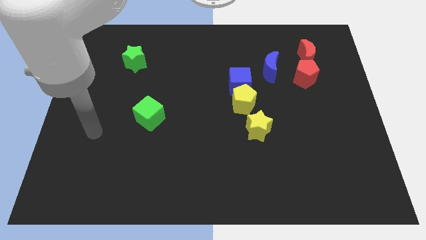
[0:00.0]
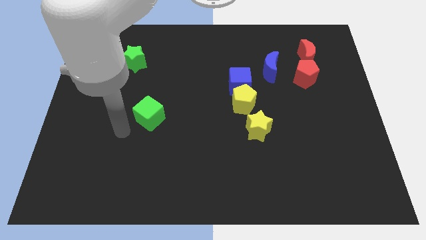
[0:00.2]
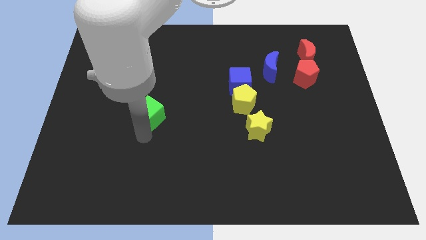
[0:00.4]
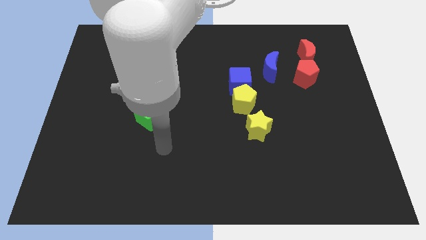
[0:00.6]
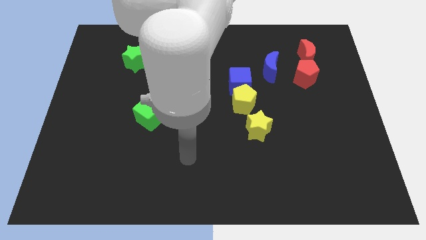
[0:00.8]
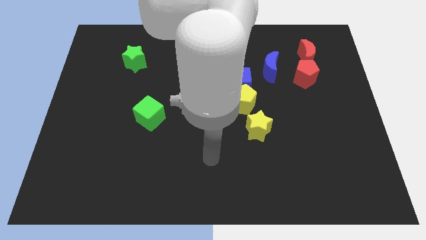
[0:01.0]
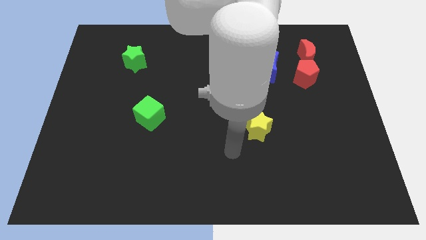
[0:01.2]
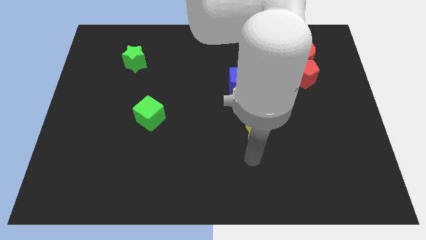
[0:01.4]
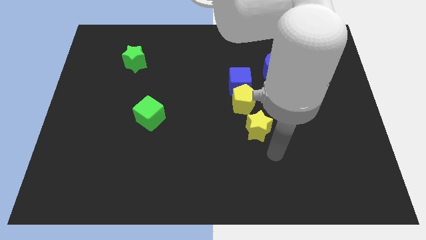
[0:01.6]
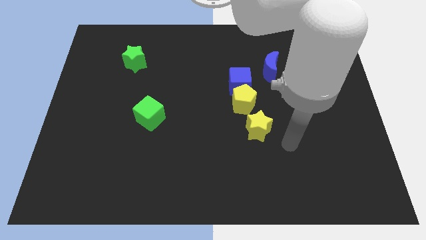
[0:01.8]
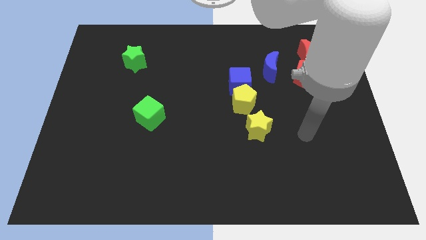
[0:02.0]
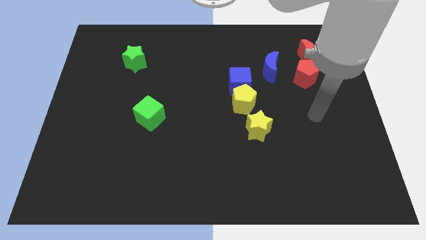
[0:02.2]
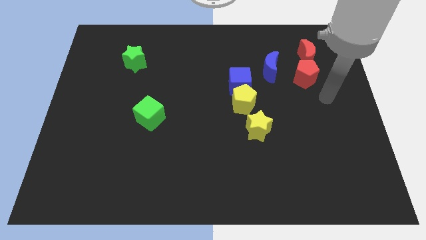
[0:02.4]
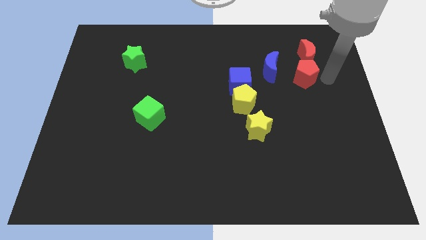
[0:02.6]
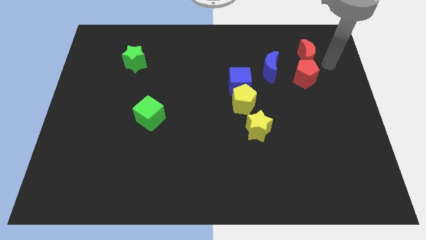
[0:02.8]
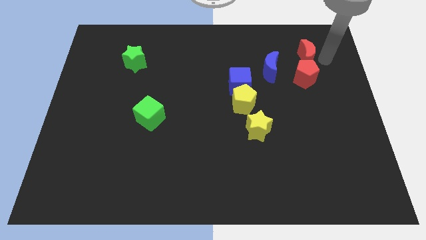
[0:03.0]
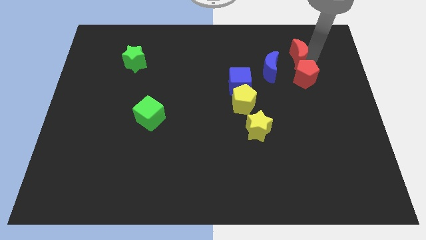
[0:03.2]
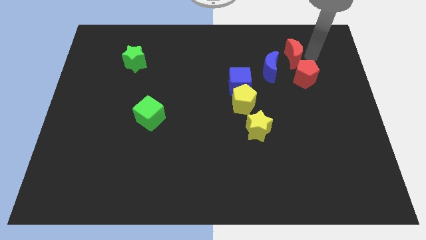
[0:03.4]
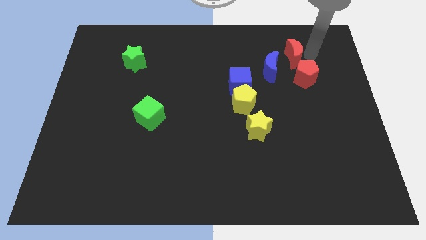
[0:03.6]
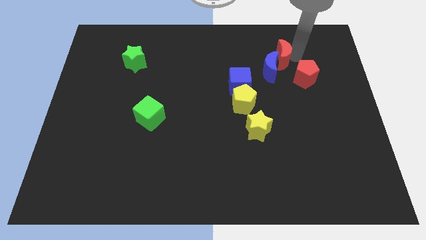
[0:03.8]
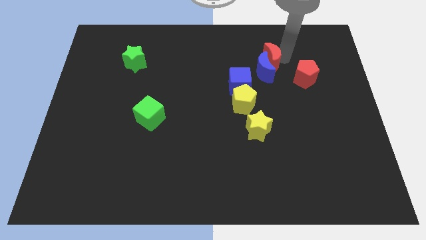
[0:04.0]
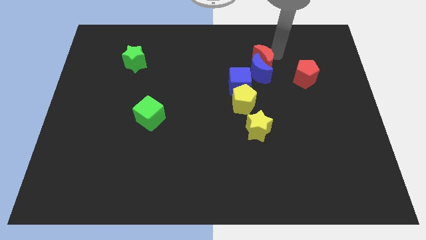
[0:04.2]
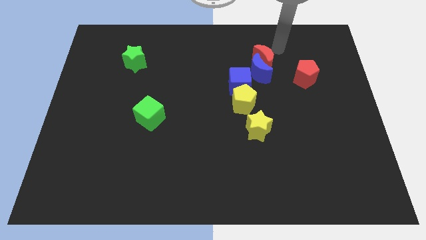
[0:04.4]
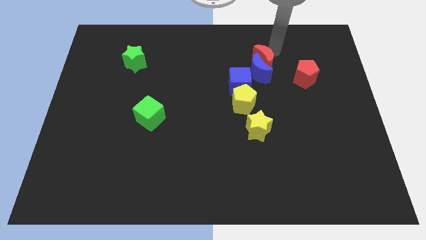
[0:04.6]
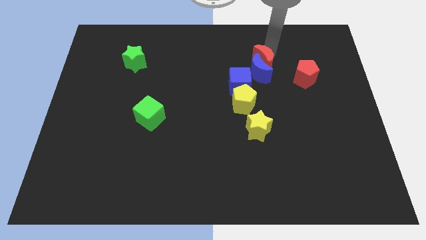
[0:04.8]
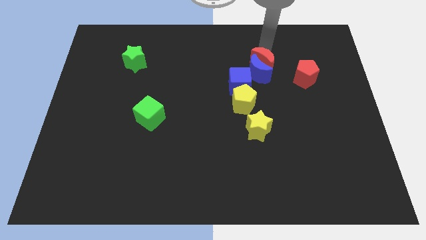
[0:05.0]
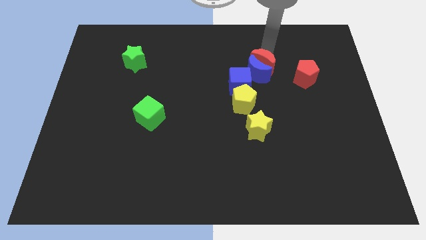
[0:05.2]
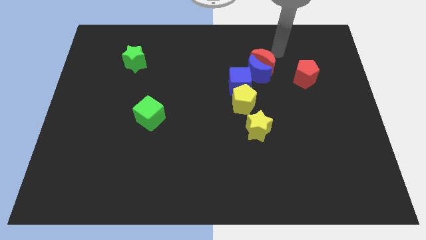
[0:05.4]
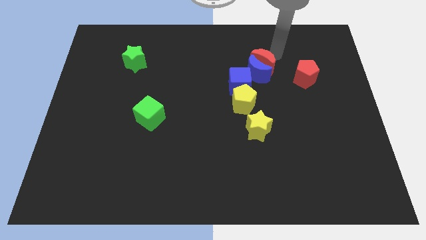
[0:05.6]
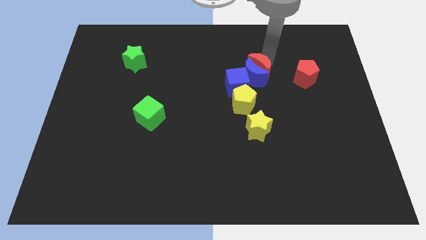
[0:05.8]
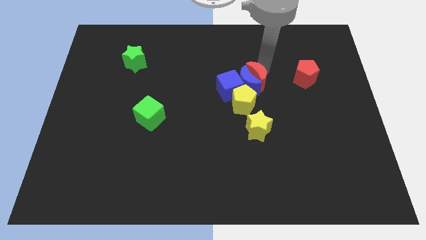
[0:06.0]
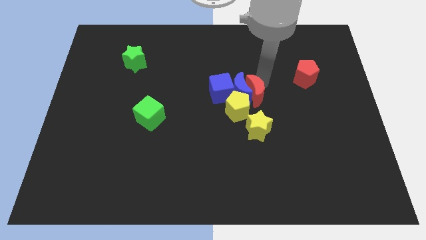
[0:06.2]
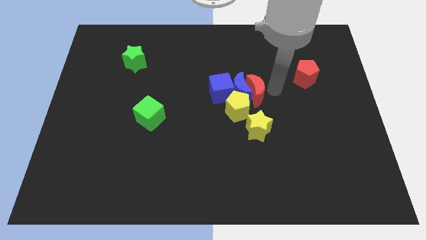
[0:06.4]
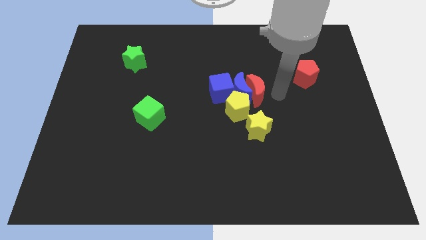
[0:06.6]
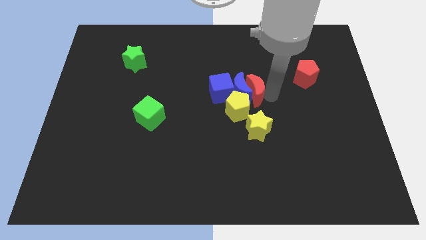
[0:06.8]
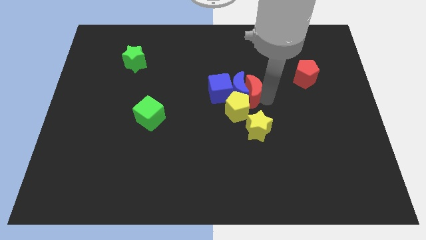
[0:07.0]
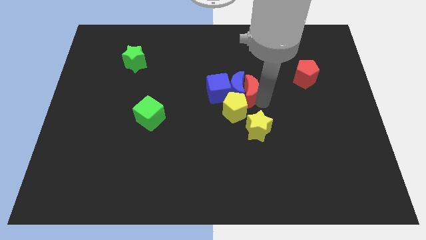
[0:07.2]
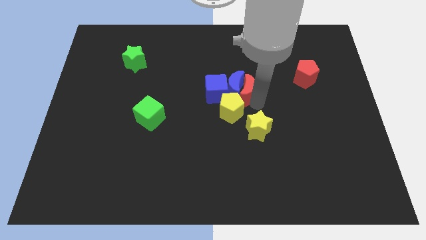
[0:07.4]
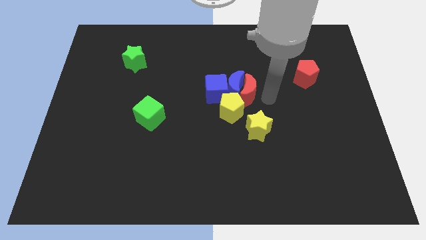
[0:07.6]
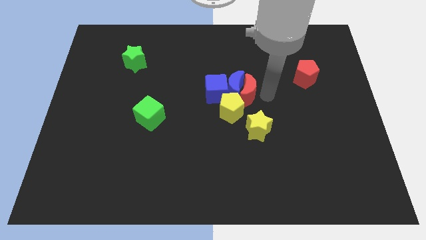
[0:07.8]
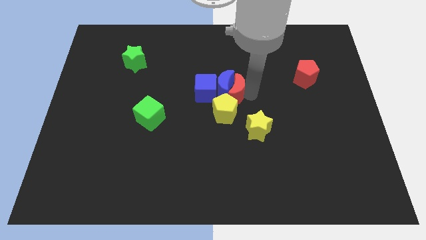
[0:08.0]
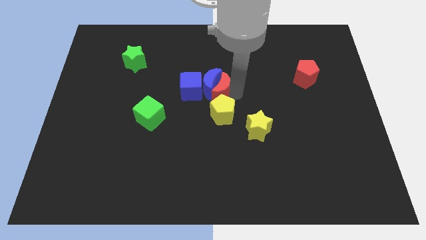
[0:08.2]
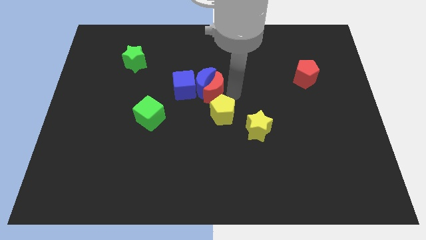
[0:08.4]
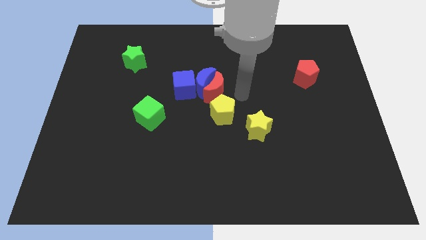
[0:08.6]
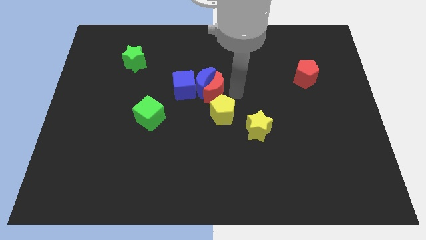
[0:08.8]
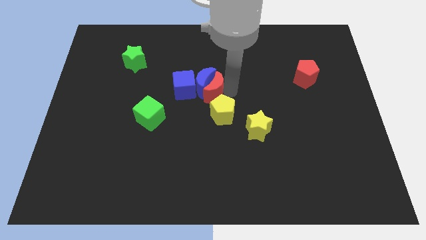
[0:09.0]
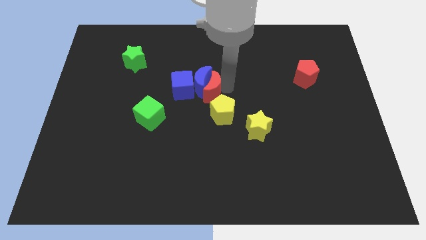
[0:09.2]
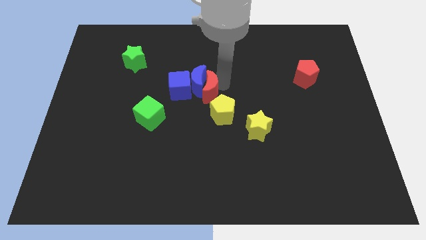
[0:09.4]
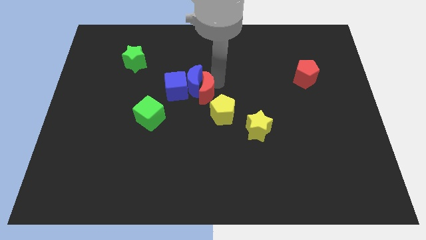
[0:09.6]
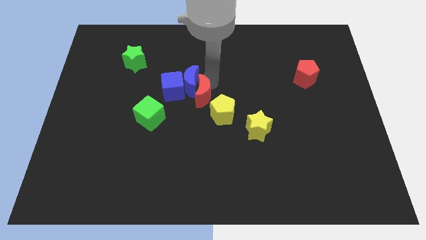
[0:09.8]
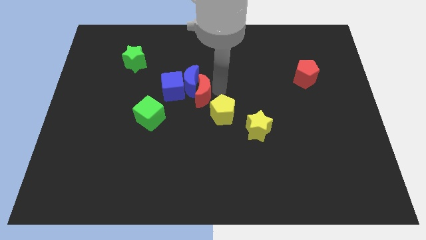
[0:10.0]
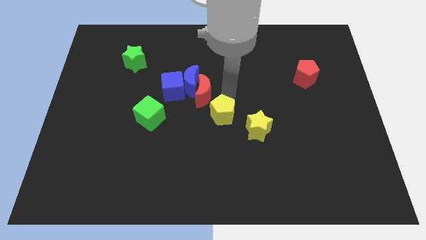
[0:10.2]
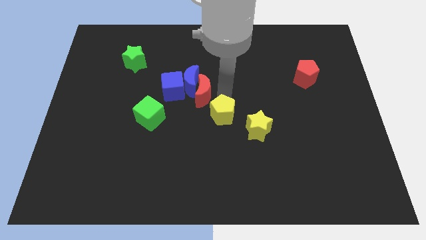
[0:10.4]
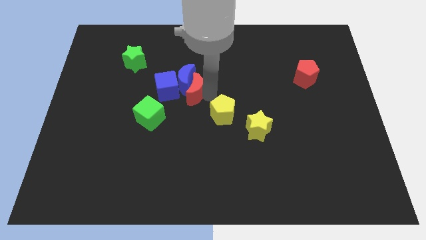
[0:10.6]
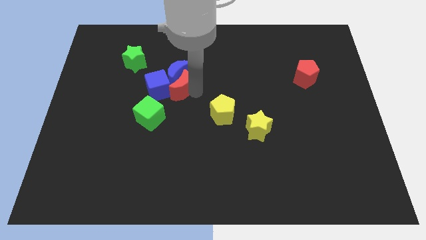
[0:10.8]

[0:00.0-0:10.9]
put the red moon to the blue cube
